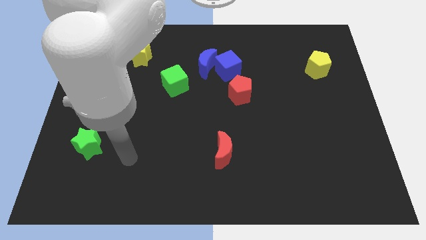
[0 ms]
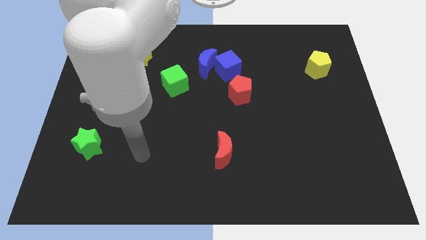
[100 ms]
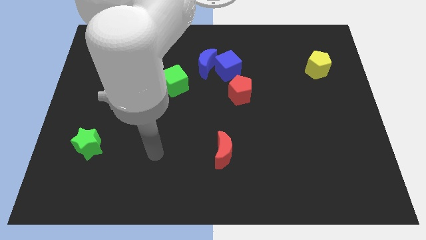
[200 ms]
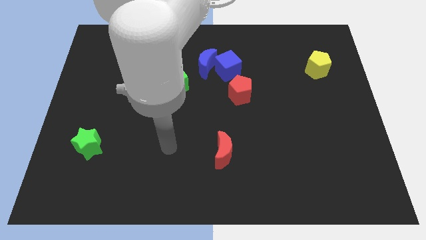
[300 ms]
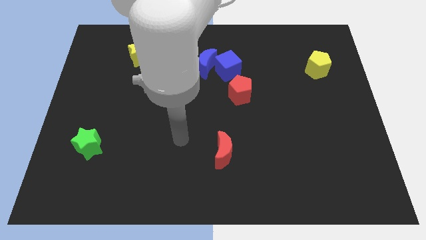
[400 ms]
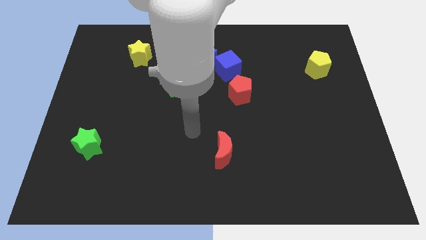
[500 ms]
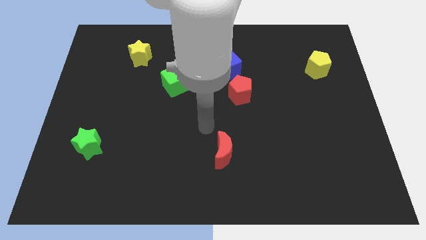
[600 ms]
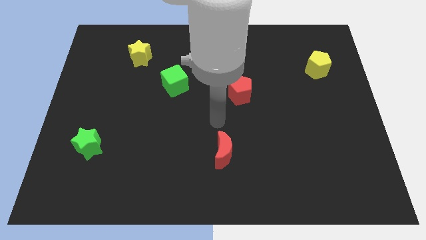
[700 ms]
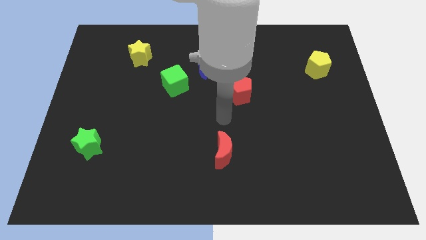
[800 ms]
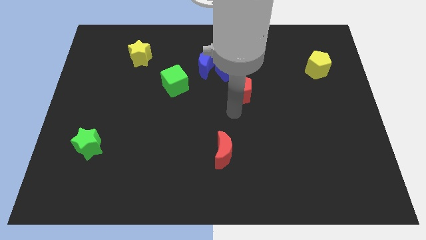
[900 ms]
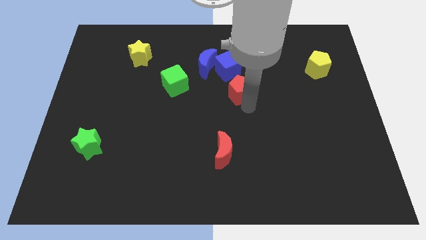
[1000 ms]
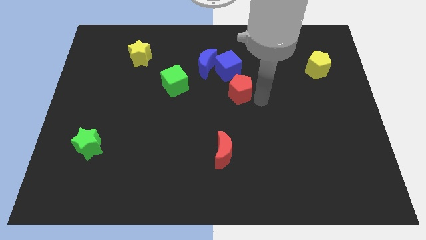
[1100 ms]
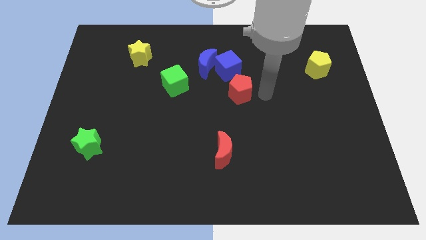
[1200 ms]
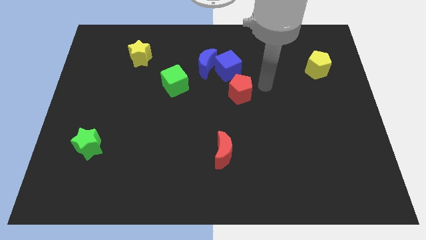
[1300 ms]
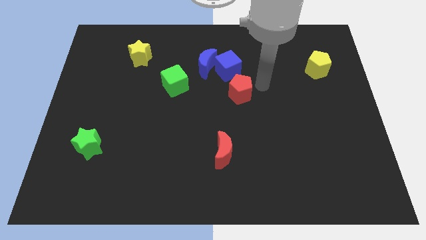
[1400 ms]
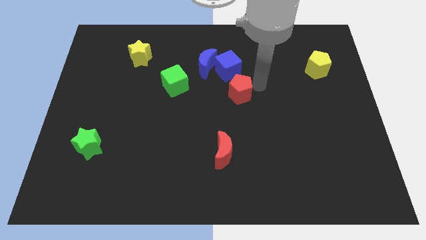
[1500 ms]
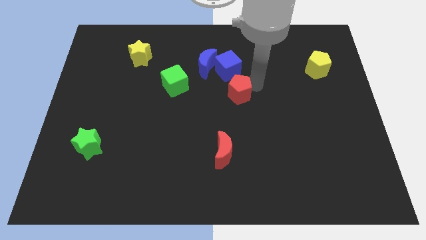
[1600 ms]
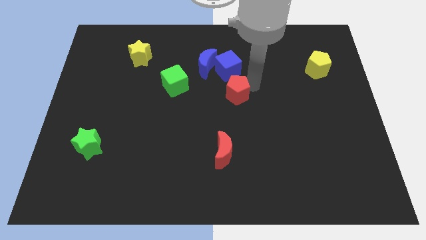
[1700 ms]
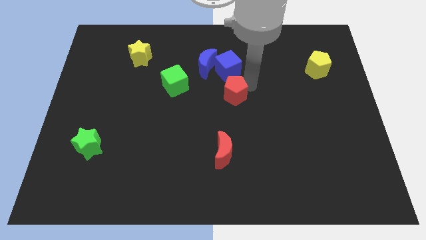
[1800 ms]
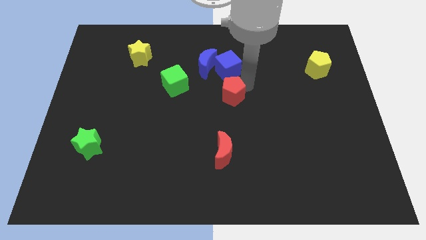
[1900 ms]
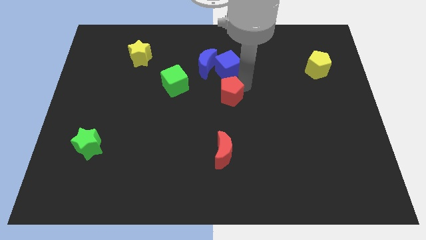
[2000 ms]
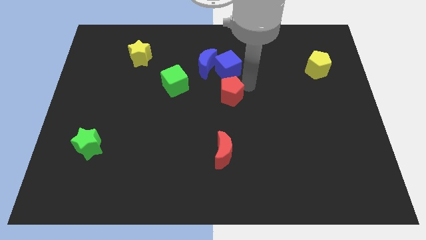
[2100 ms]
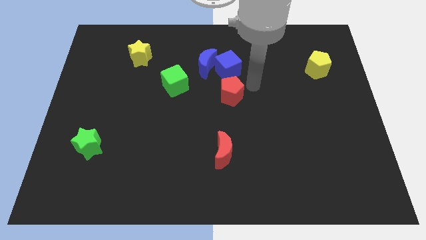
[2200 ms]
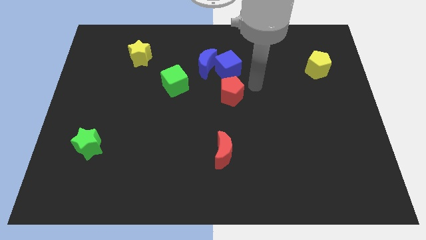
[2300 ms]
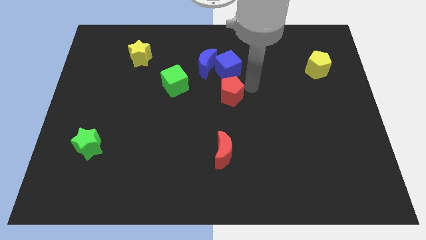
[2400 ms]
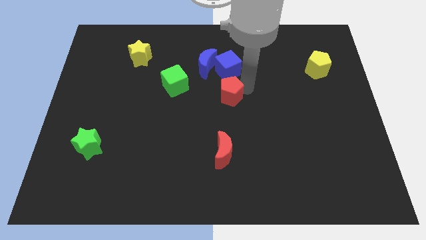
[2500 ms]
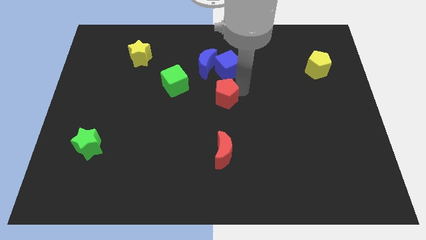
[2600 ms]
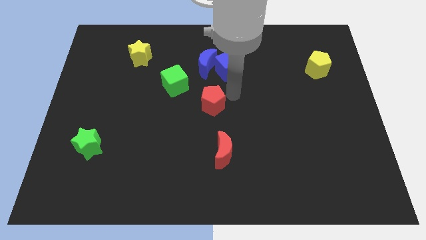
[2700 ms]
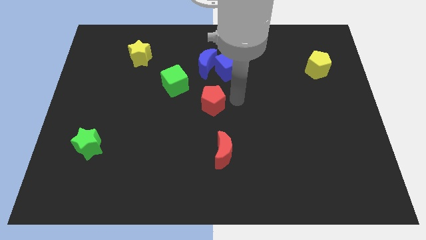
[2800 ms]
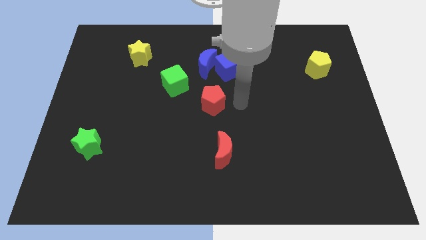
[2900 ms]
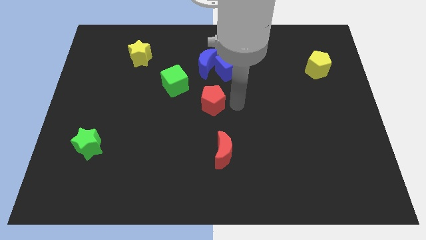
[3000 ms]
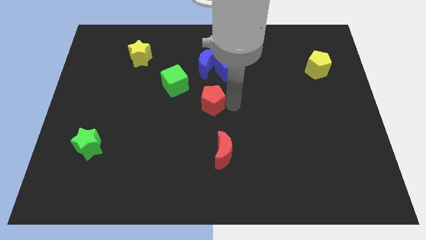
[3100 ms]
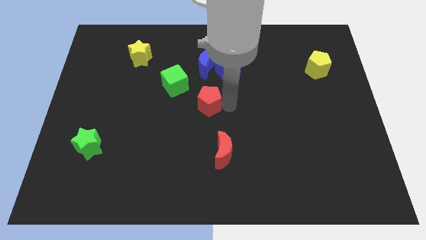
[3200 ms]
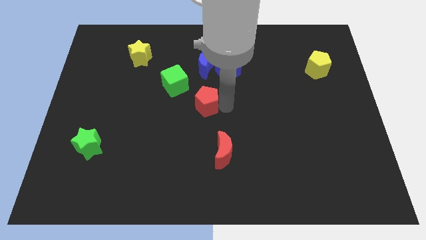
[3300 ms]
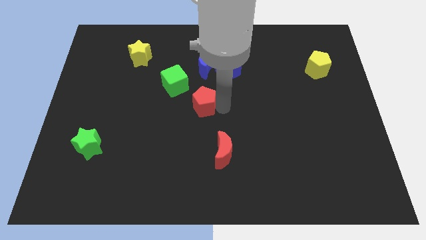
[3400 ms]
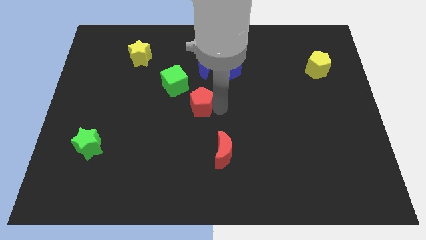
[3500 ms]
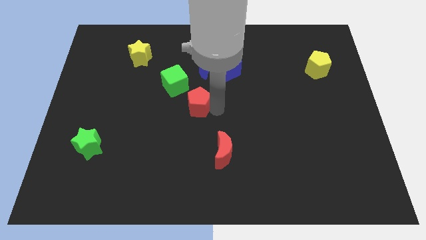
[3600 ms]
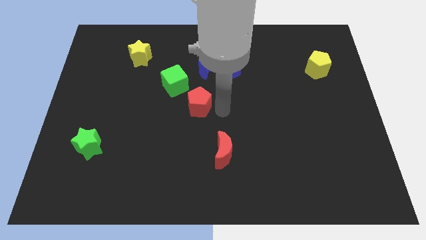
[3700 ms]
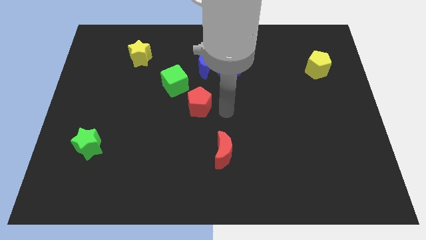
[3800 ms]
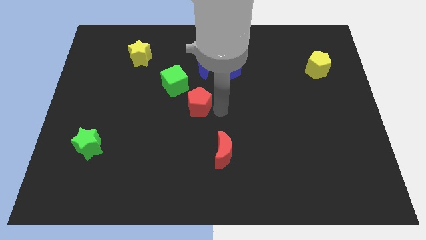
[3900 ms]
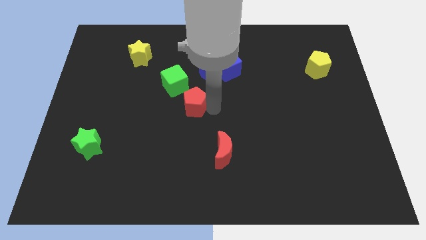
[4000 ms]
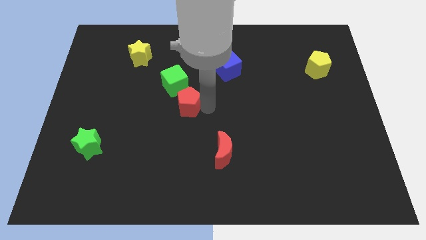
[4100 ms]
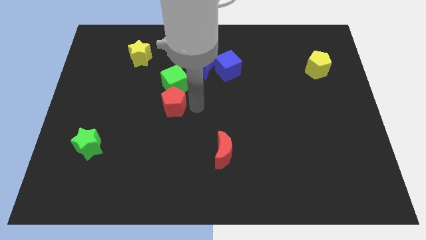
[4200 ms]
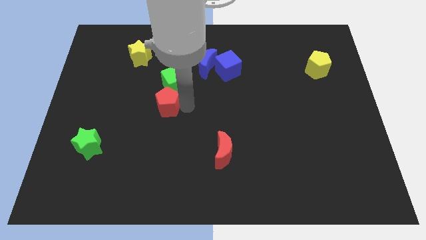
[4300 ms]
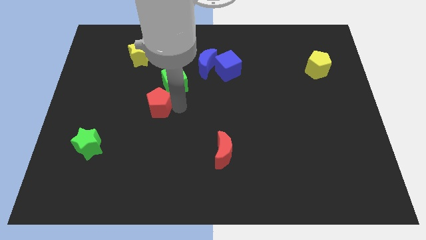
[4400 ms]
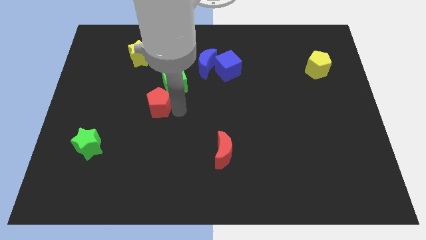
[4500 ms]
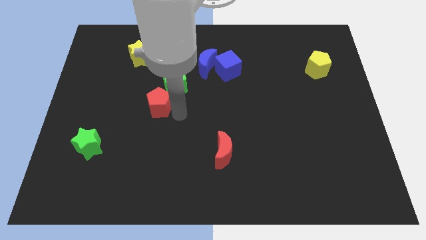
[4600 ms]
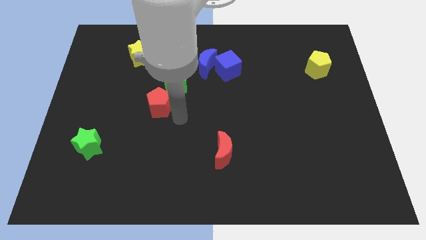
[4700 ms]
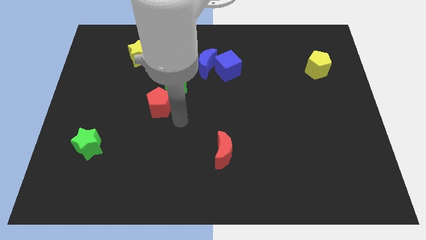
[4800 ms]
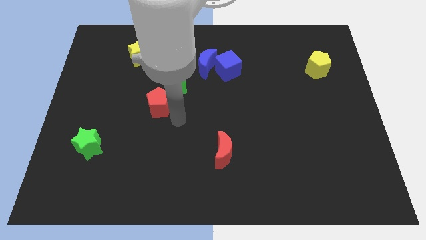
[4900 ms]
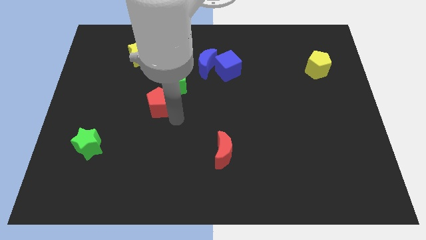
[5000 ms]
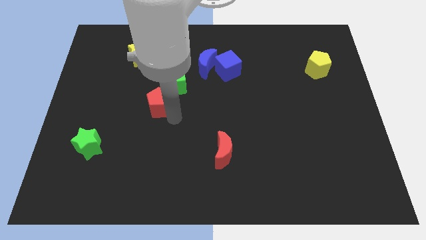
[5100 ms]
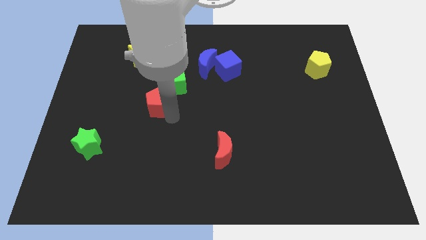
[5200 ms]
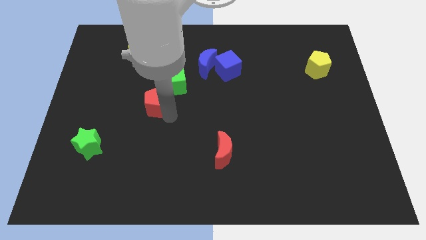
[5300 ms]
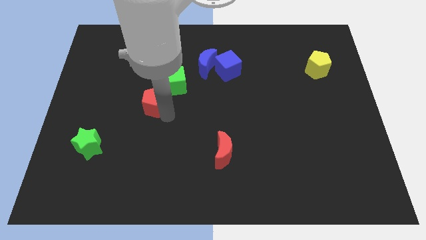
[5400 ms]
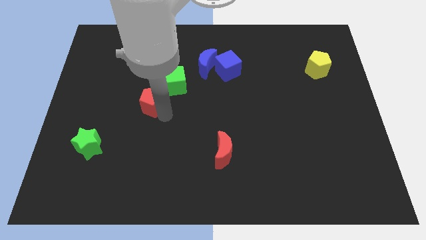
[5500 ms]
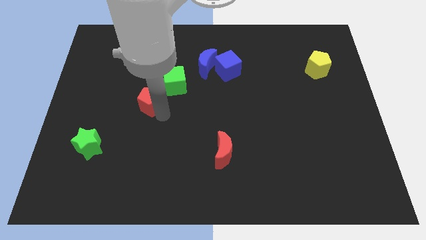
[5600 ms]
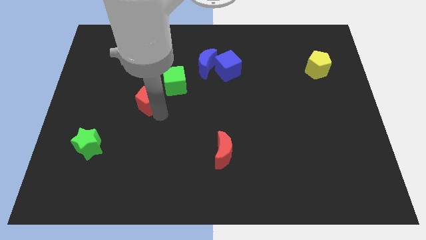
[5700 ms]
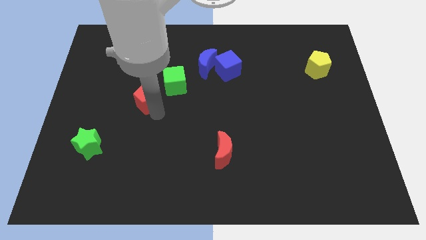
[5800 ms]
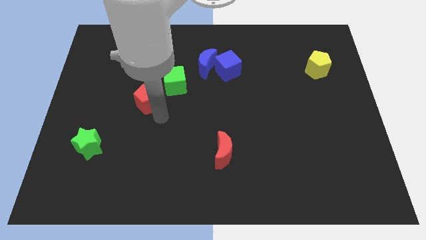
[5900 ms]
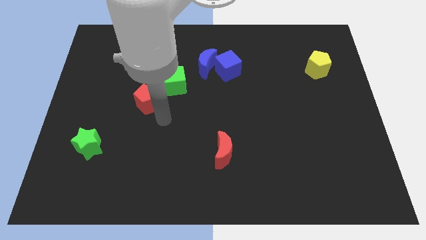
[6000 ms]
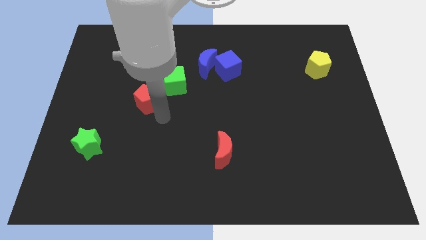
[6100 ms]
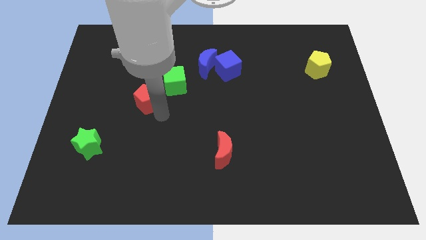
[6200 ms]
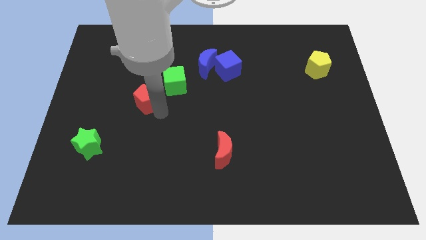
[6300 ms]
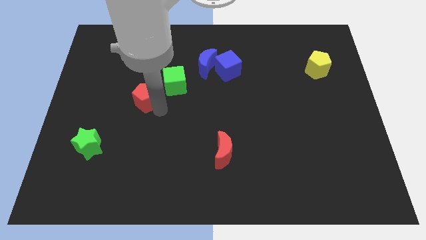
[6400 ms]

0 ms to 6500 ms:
slide the red pentagon below the yellow star
